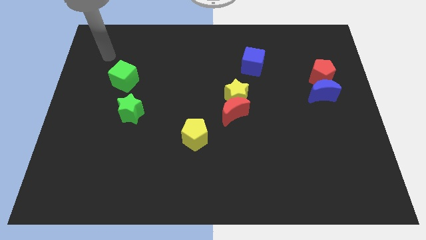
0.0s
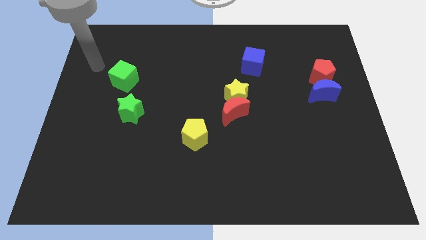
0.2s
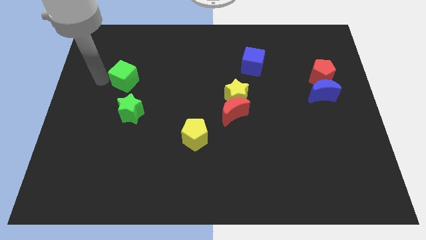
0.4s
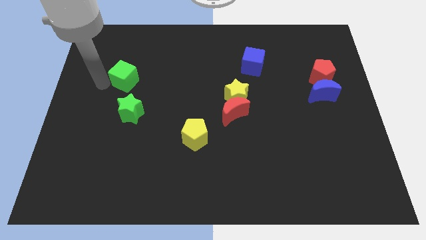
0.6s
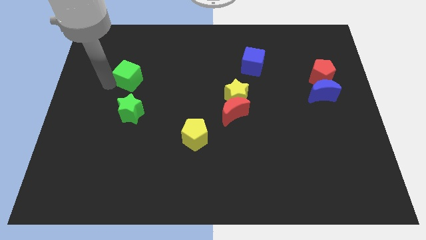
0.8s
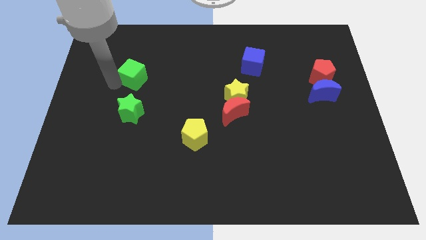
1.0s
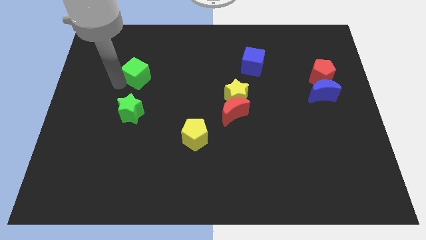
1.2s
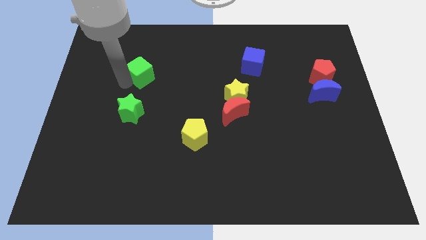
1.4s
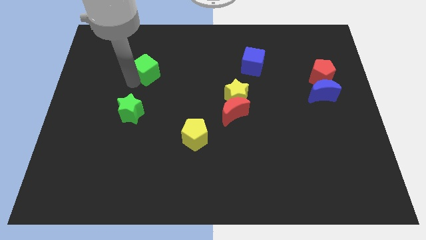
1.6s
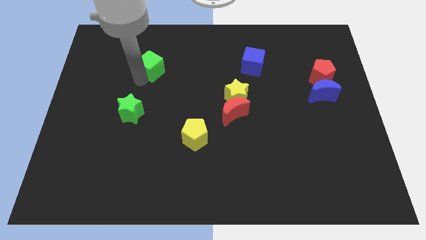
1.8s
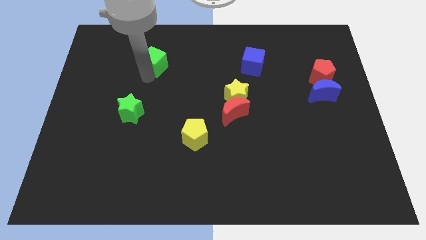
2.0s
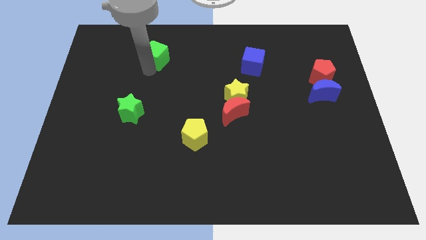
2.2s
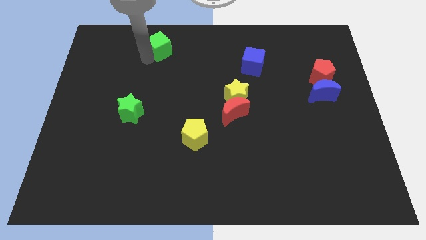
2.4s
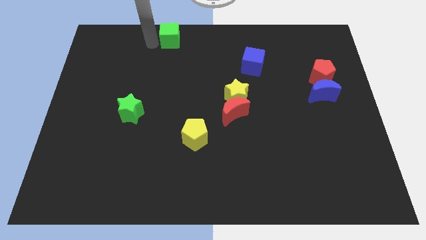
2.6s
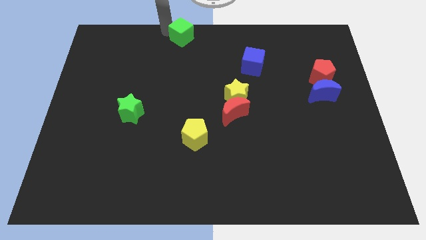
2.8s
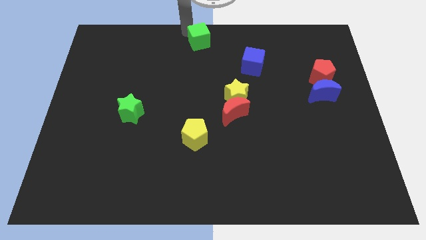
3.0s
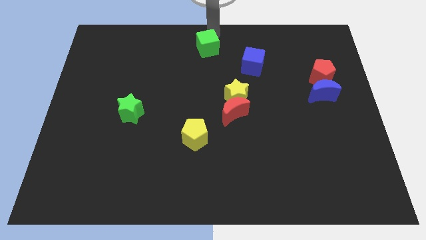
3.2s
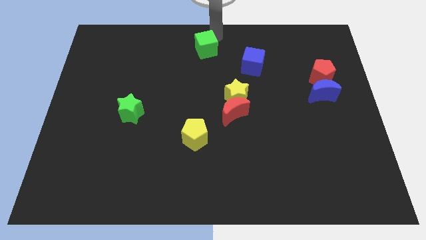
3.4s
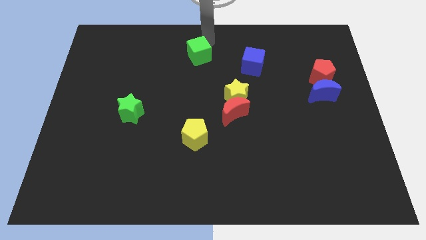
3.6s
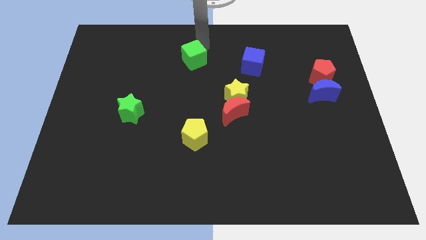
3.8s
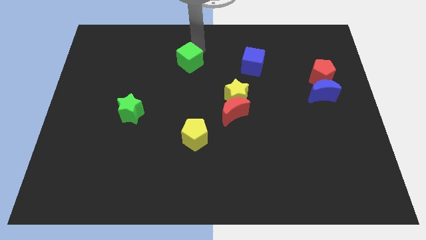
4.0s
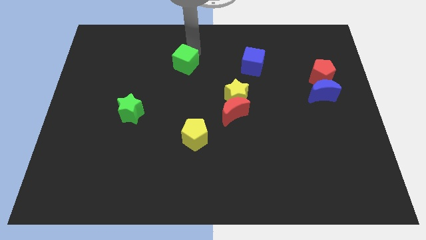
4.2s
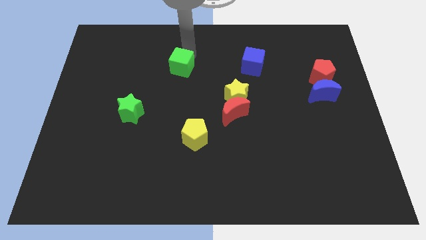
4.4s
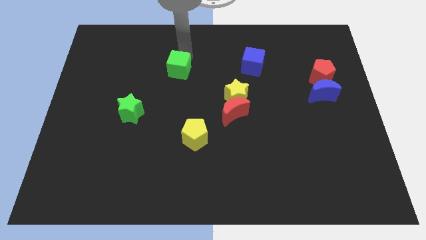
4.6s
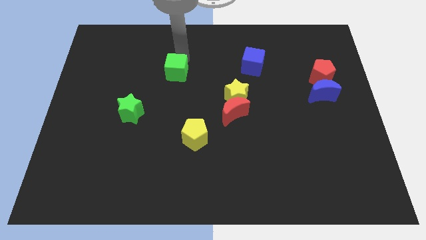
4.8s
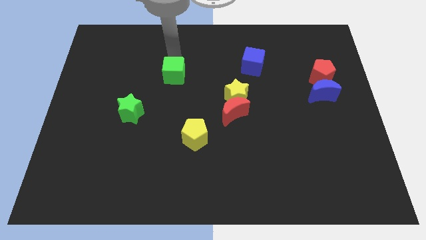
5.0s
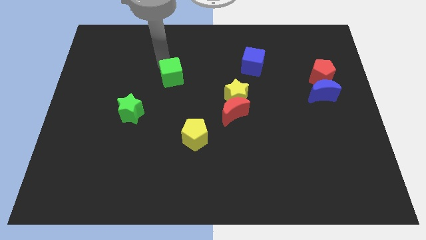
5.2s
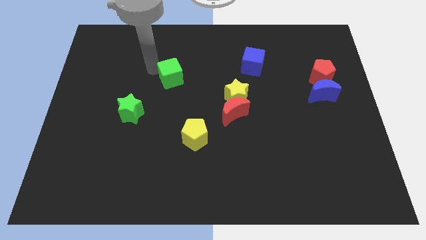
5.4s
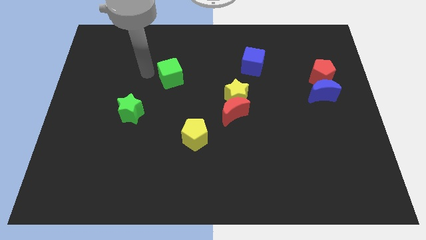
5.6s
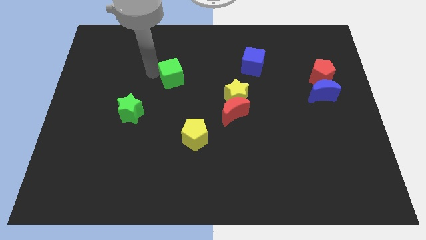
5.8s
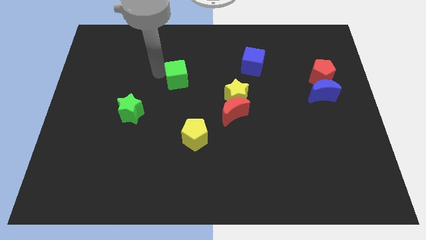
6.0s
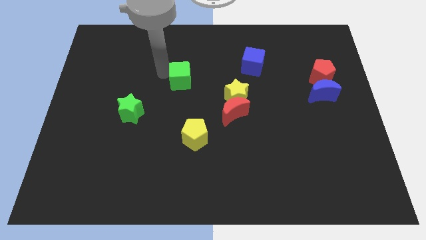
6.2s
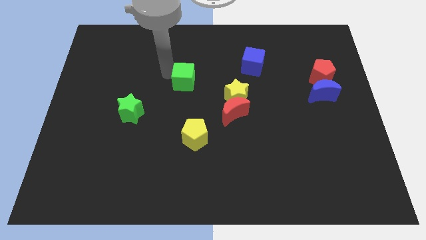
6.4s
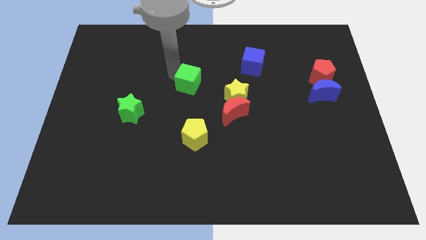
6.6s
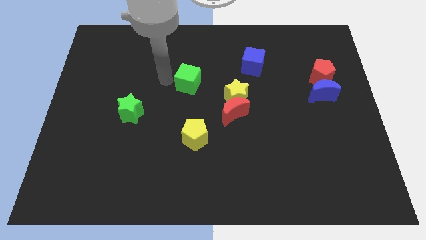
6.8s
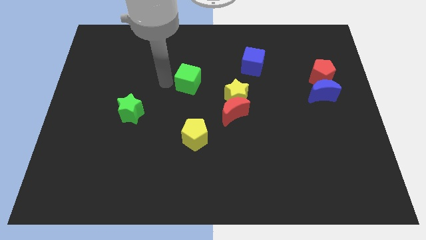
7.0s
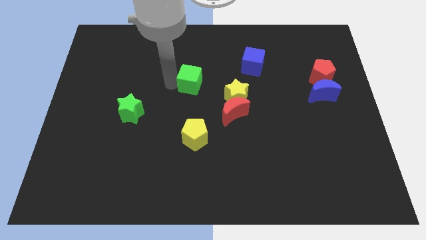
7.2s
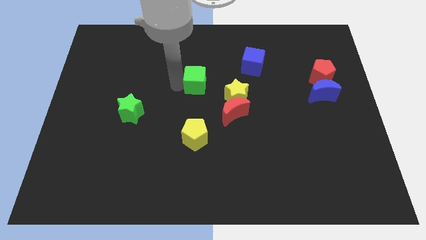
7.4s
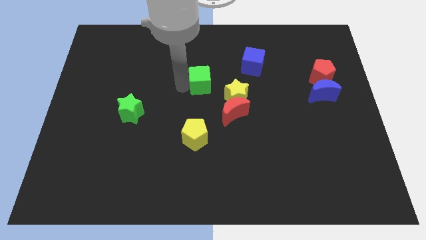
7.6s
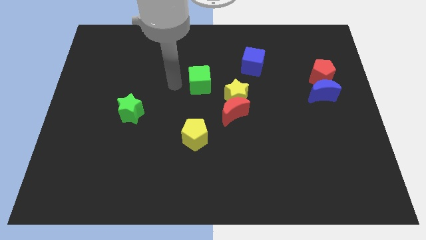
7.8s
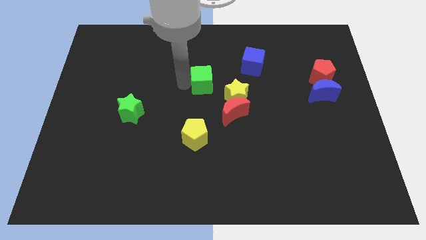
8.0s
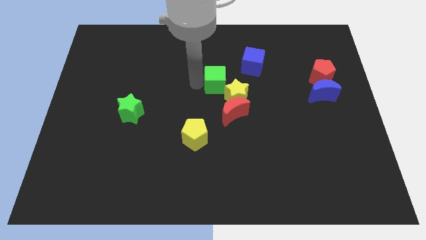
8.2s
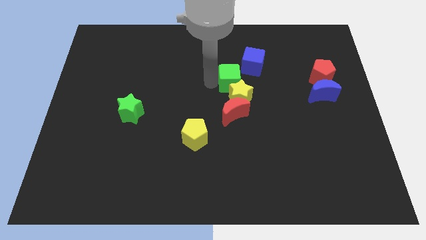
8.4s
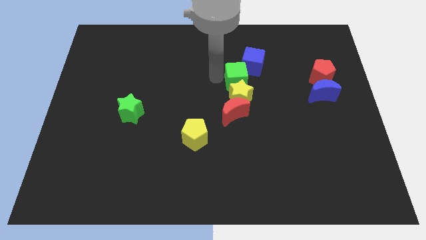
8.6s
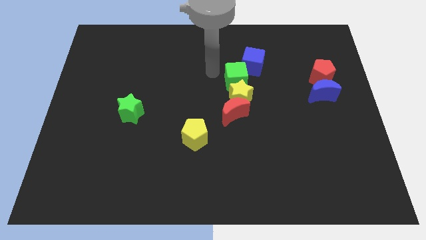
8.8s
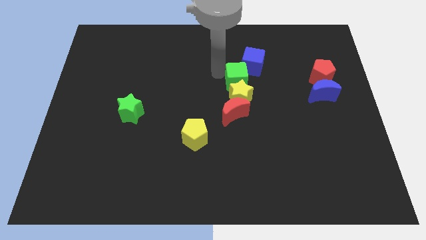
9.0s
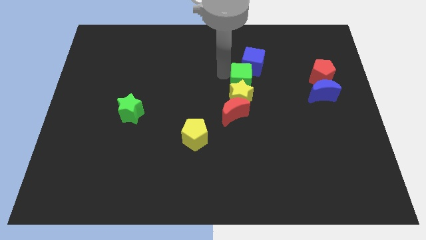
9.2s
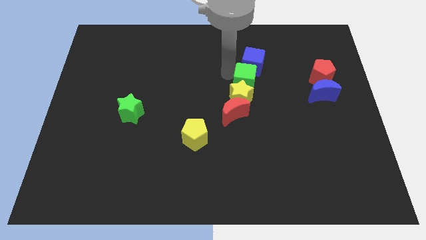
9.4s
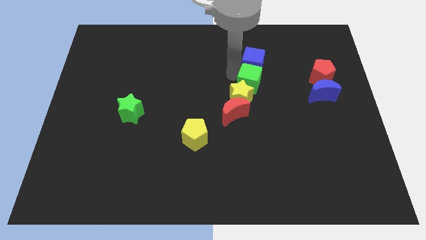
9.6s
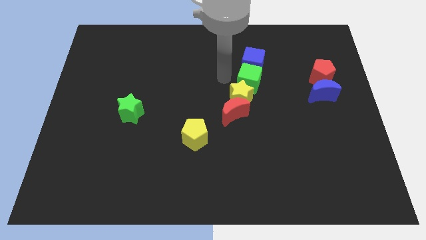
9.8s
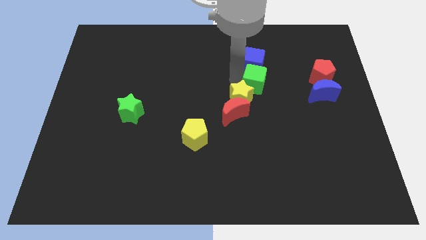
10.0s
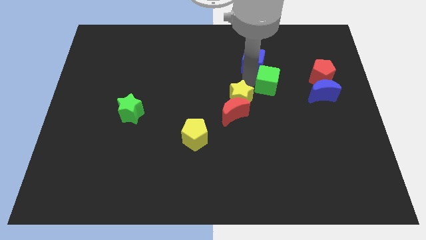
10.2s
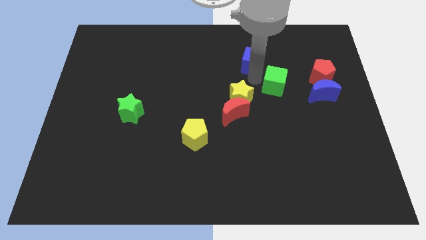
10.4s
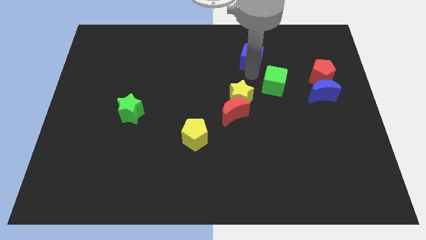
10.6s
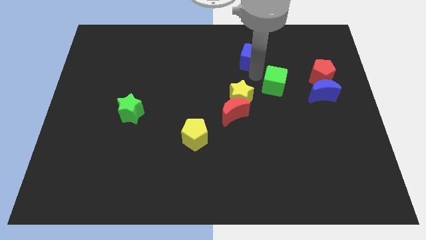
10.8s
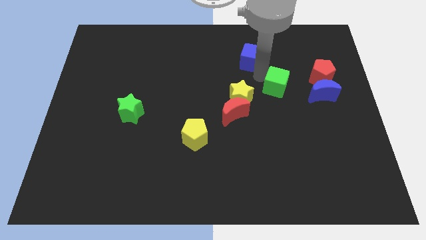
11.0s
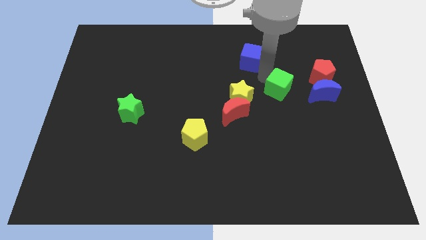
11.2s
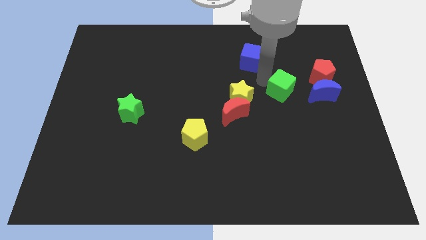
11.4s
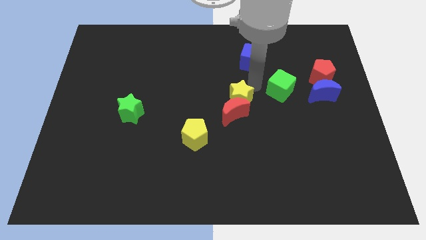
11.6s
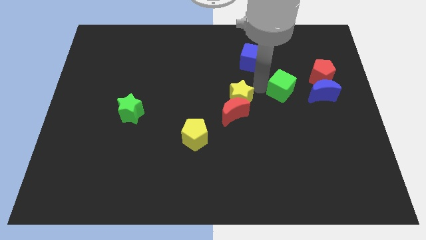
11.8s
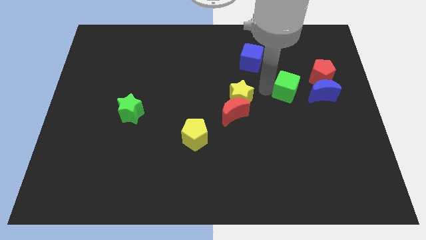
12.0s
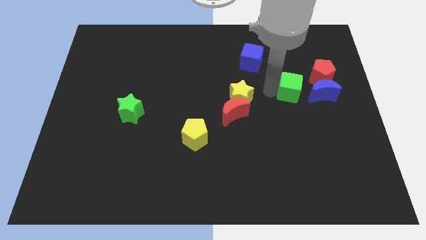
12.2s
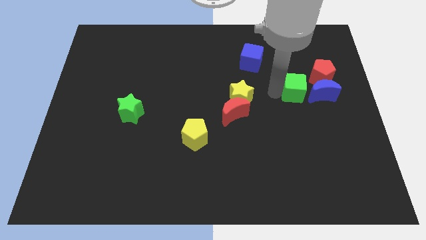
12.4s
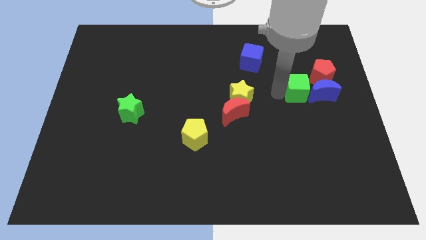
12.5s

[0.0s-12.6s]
slide the green cube to the blue moon
